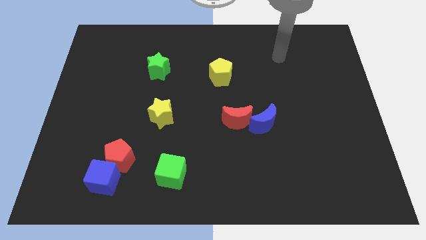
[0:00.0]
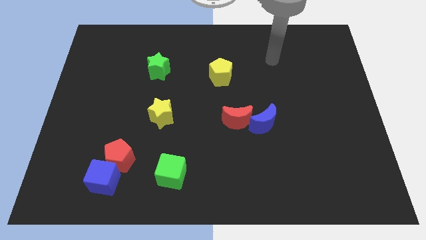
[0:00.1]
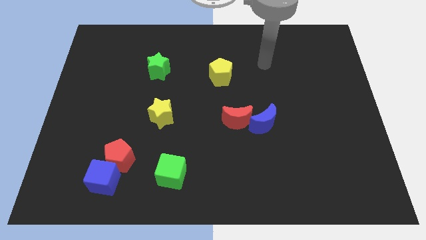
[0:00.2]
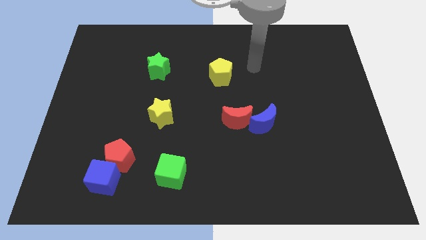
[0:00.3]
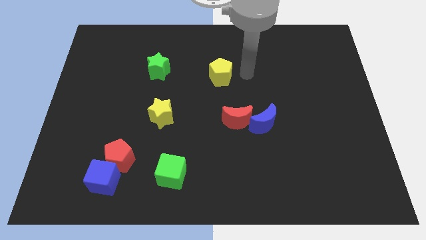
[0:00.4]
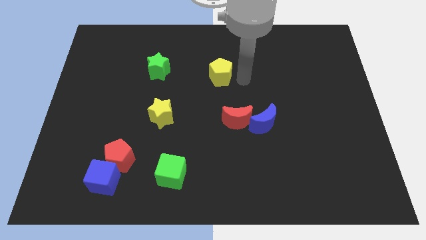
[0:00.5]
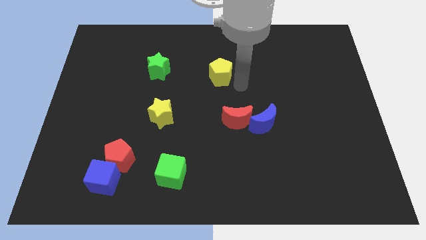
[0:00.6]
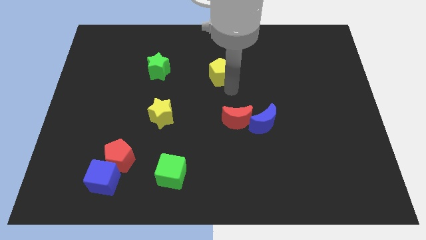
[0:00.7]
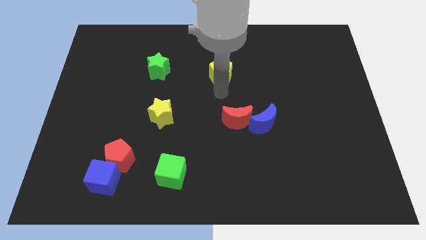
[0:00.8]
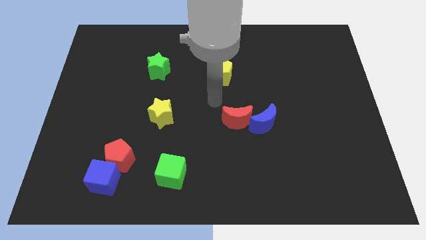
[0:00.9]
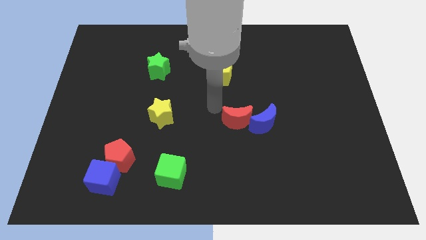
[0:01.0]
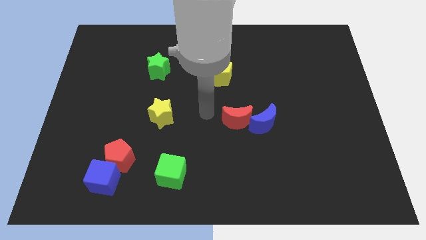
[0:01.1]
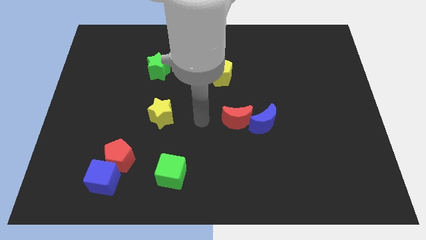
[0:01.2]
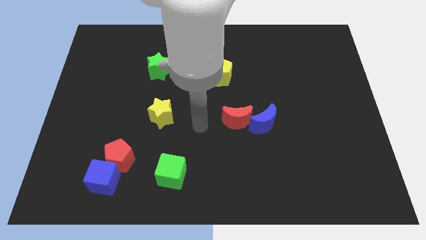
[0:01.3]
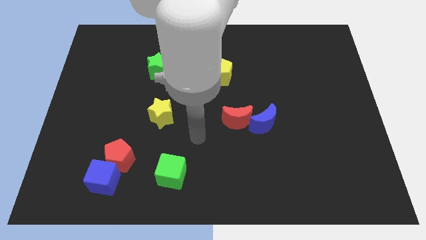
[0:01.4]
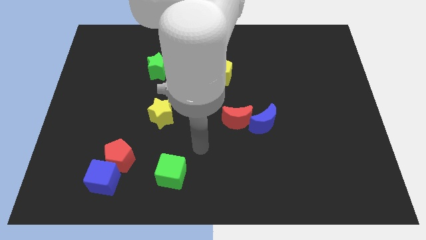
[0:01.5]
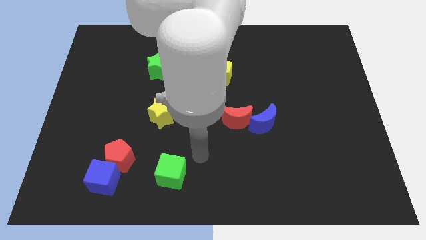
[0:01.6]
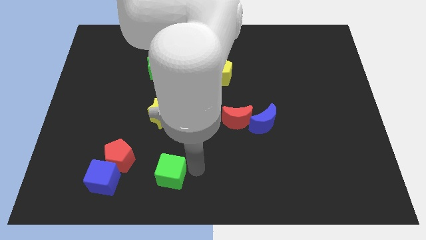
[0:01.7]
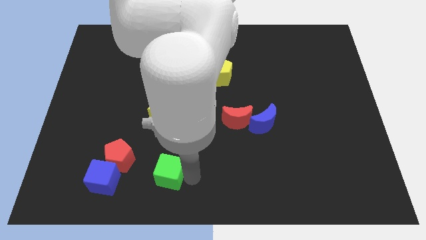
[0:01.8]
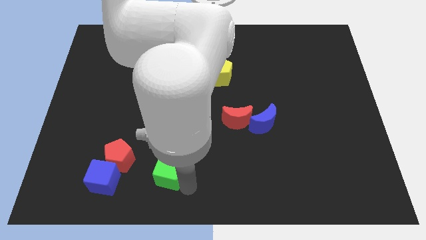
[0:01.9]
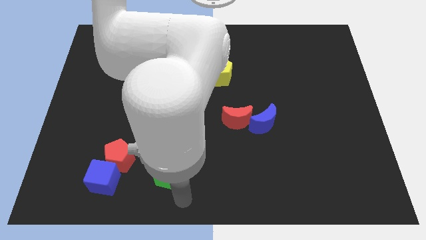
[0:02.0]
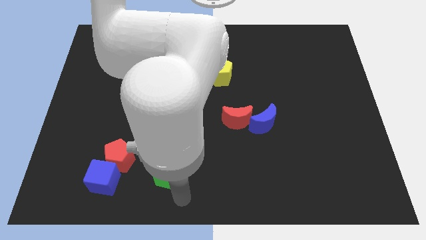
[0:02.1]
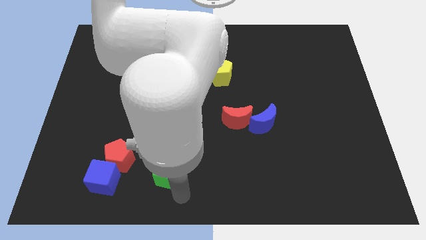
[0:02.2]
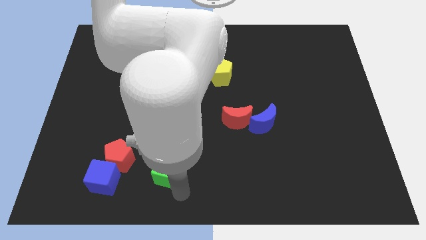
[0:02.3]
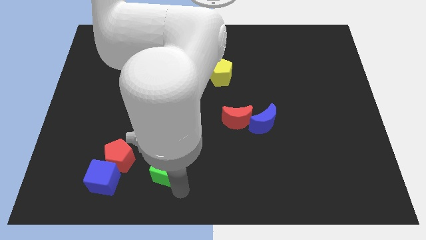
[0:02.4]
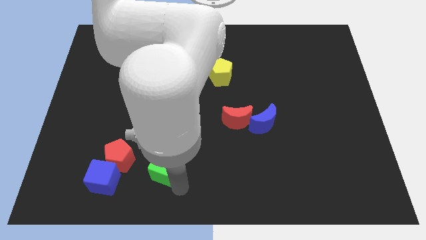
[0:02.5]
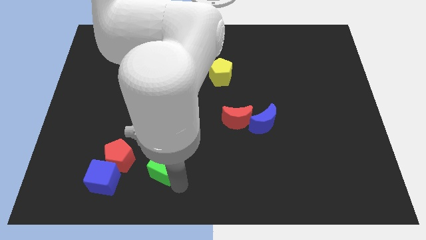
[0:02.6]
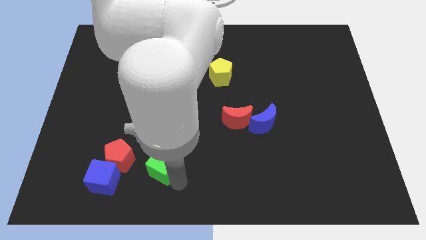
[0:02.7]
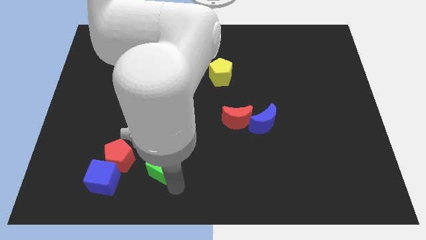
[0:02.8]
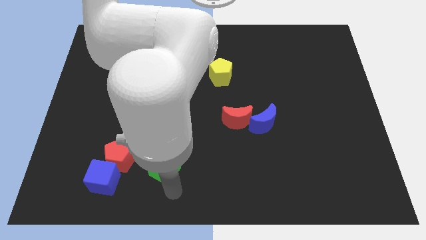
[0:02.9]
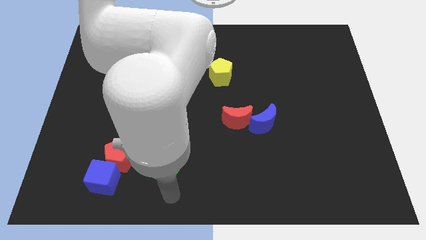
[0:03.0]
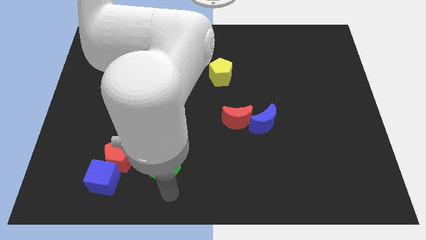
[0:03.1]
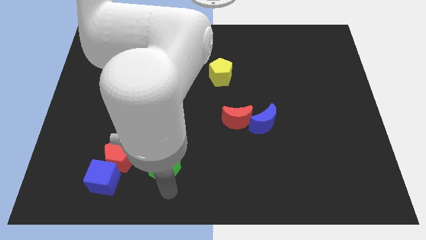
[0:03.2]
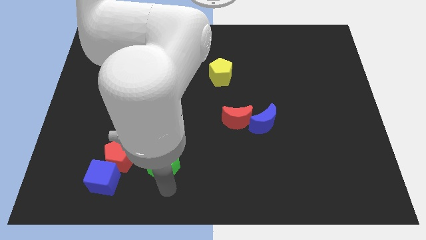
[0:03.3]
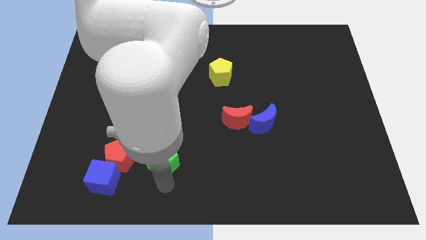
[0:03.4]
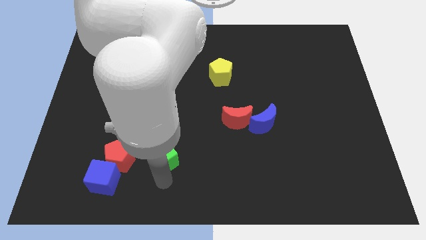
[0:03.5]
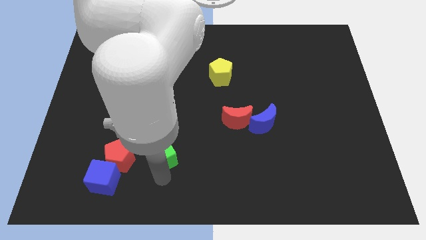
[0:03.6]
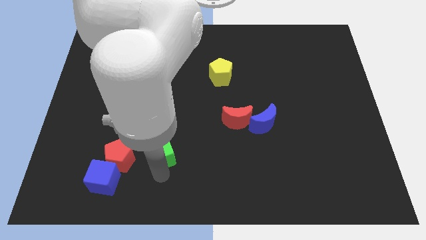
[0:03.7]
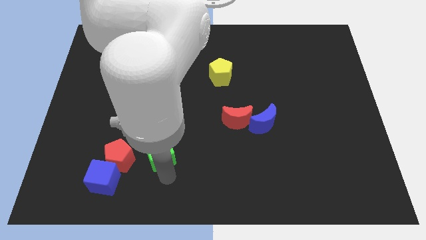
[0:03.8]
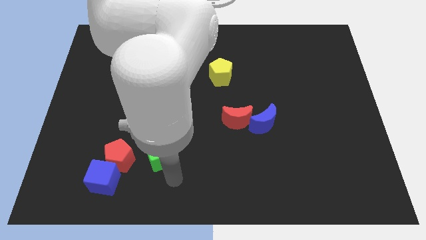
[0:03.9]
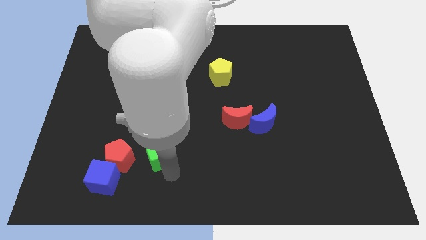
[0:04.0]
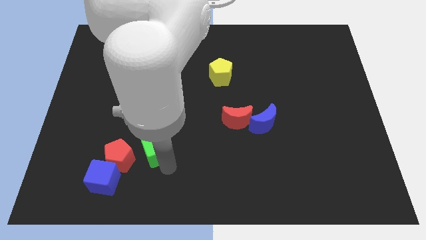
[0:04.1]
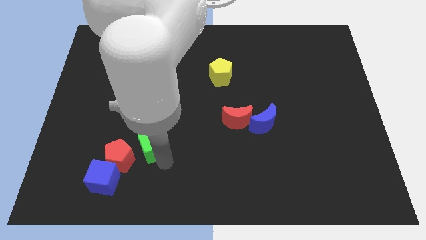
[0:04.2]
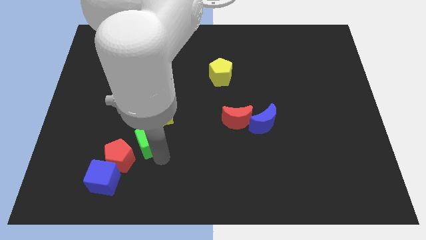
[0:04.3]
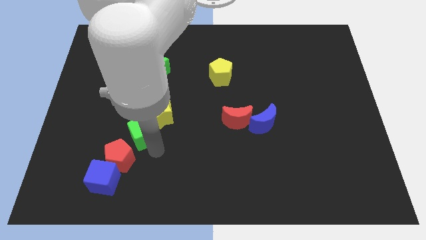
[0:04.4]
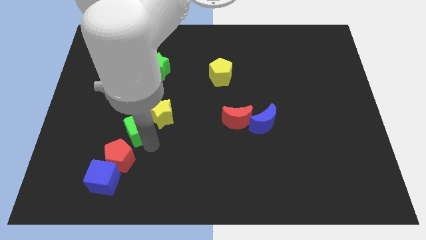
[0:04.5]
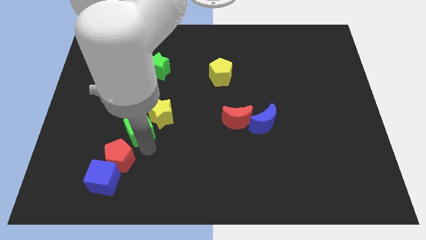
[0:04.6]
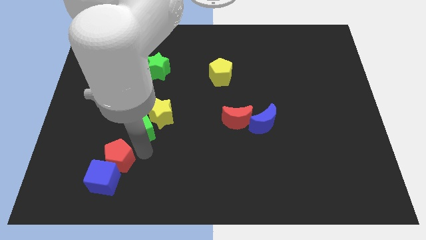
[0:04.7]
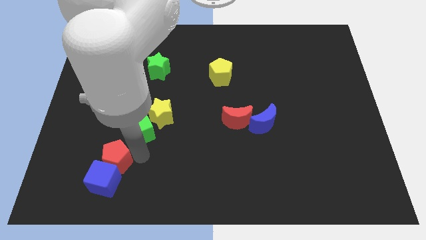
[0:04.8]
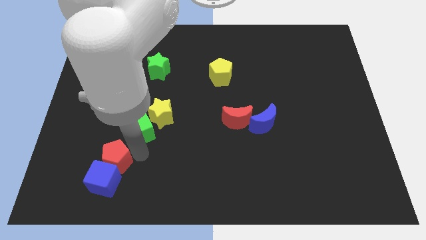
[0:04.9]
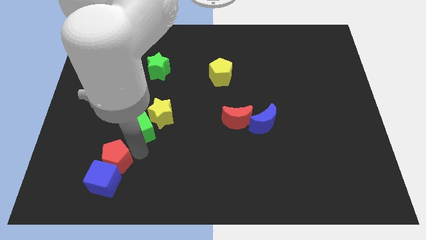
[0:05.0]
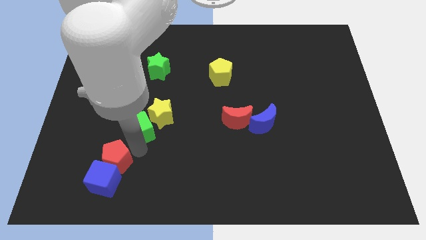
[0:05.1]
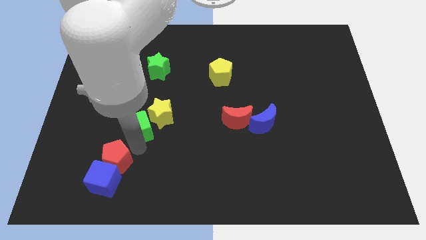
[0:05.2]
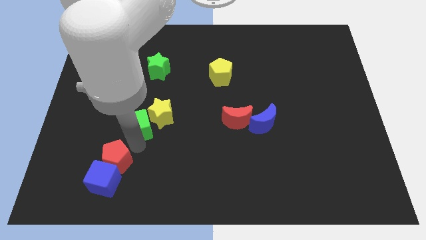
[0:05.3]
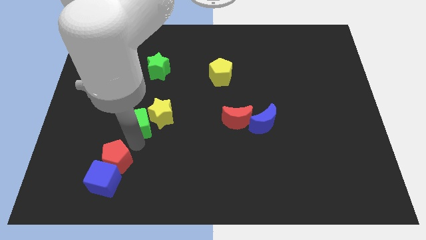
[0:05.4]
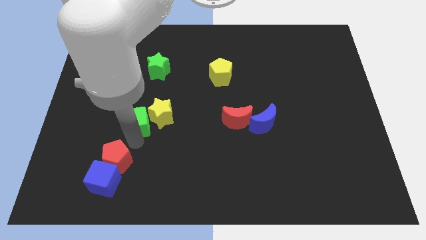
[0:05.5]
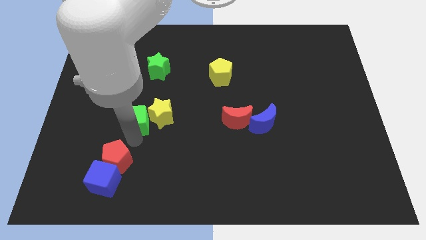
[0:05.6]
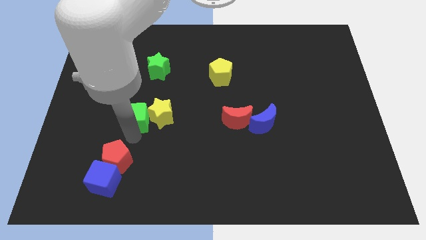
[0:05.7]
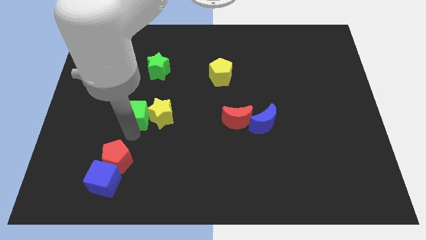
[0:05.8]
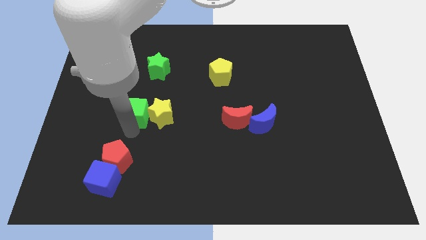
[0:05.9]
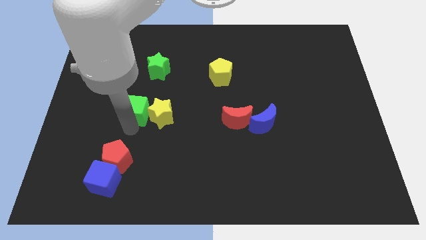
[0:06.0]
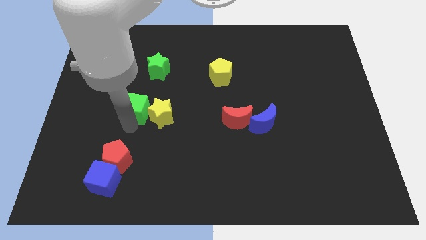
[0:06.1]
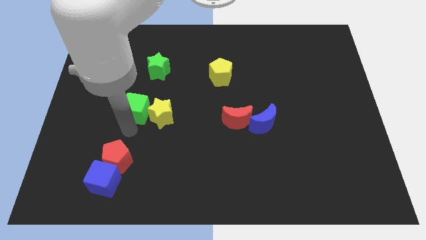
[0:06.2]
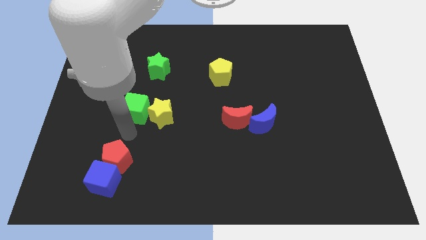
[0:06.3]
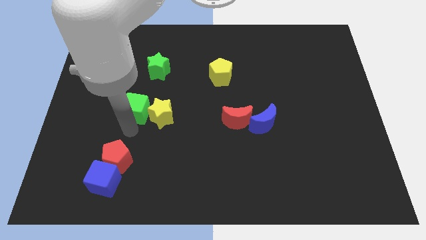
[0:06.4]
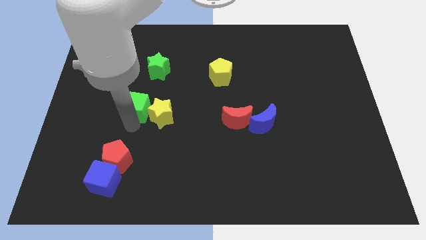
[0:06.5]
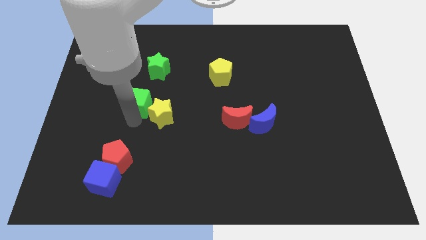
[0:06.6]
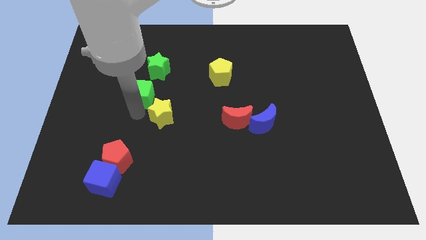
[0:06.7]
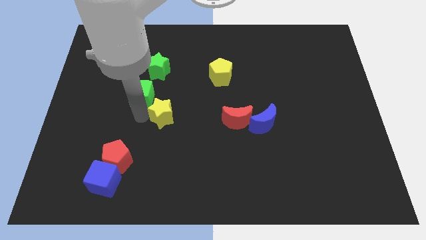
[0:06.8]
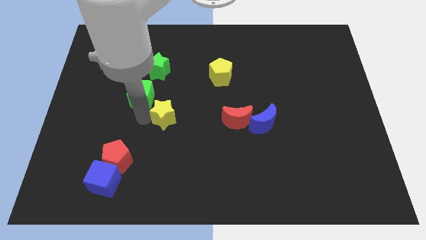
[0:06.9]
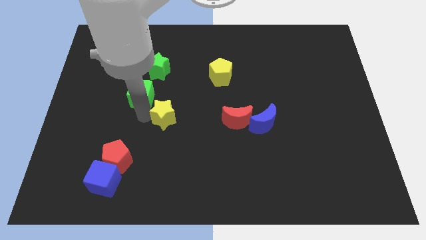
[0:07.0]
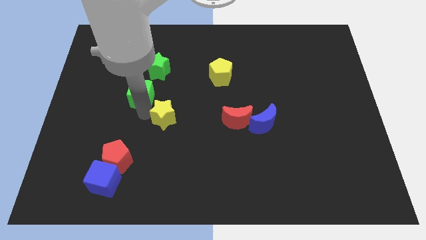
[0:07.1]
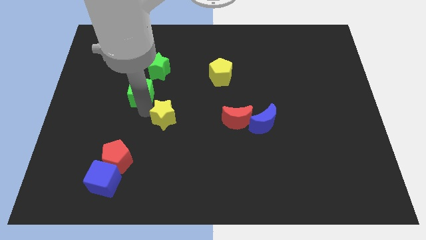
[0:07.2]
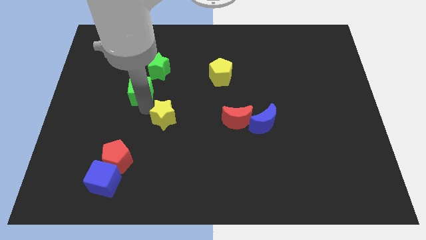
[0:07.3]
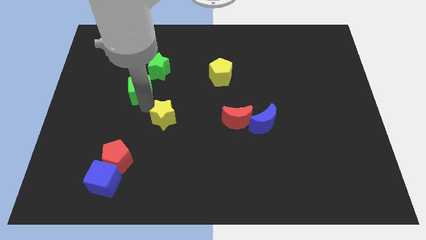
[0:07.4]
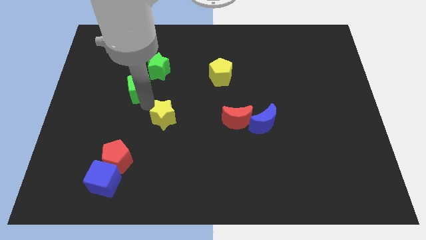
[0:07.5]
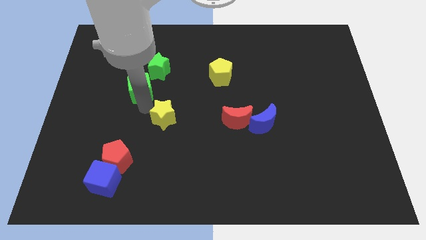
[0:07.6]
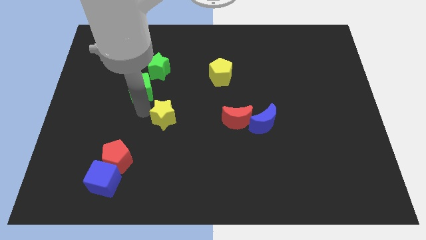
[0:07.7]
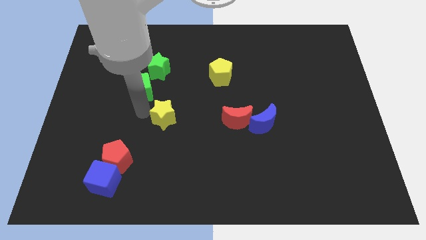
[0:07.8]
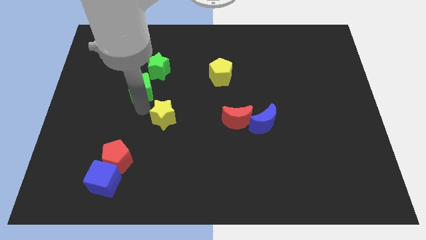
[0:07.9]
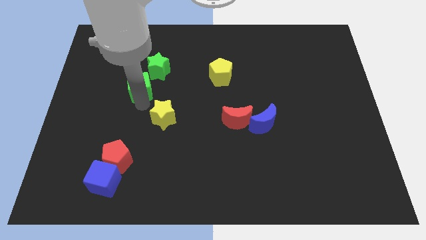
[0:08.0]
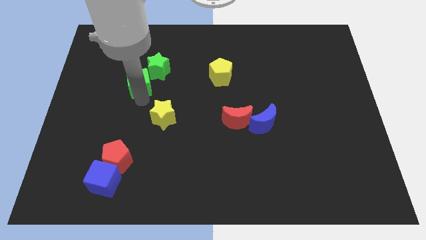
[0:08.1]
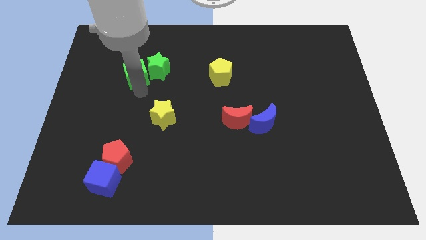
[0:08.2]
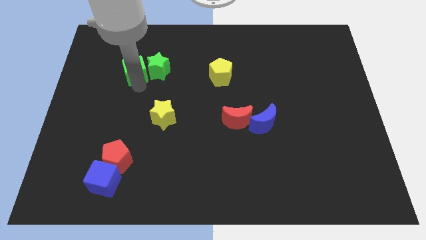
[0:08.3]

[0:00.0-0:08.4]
push the green cube diagonally up and to the left of the green star
